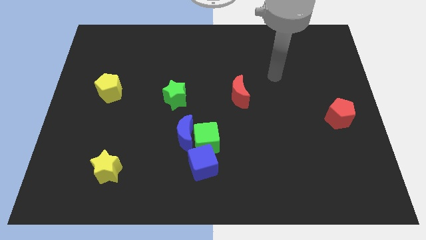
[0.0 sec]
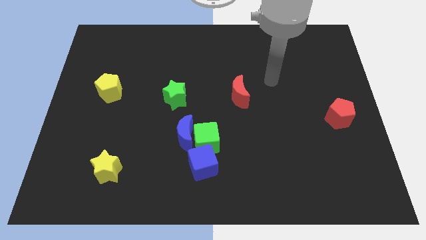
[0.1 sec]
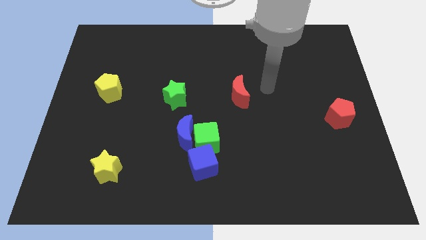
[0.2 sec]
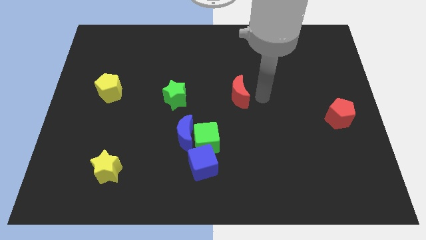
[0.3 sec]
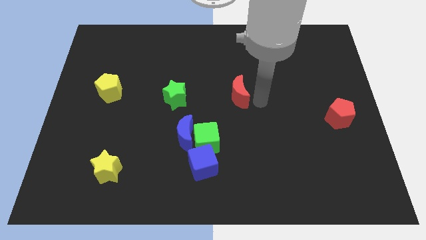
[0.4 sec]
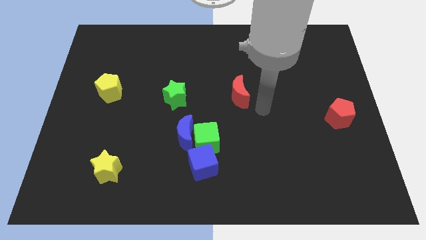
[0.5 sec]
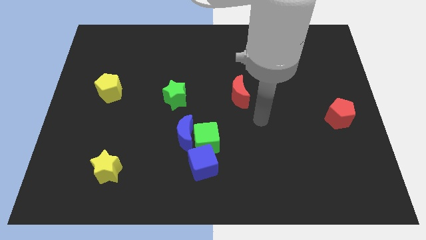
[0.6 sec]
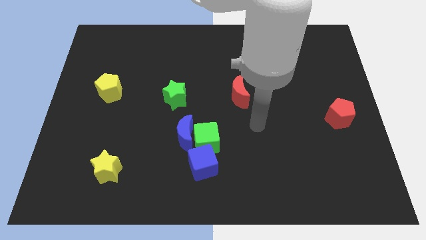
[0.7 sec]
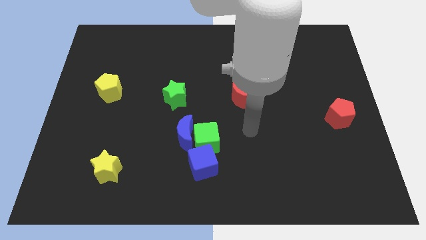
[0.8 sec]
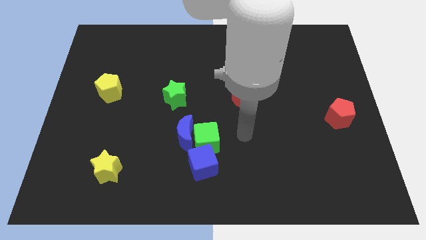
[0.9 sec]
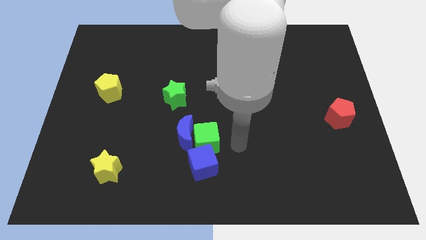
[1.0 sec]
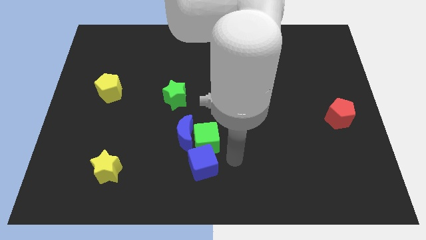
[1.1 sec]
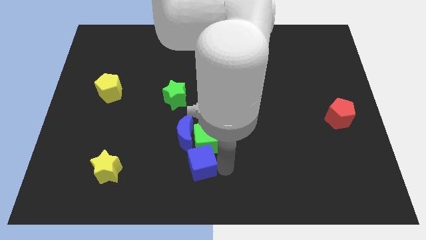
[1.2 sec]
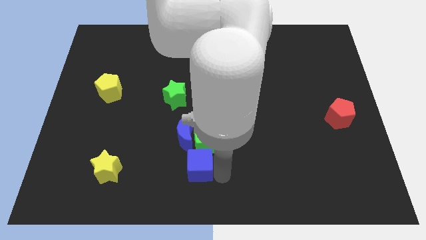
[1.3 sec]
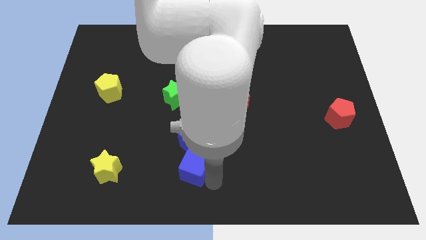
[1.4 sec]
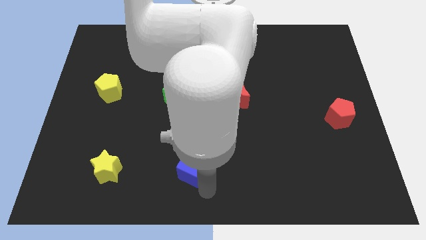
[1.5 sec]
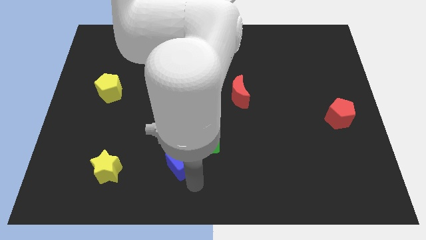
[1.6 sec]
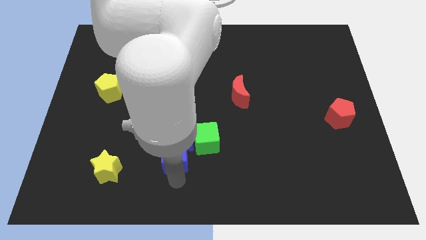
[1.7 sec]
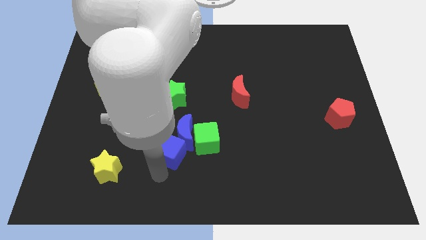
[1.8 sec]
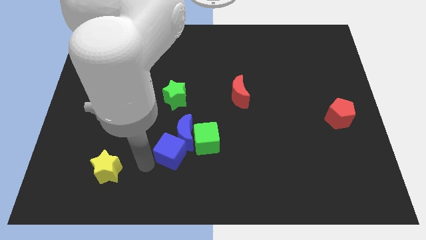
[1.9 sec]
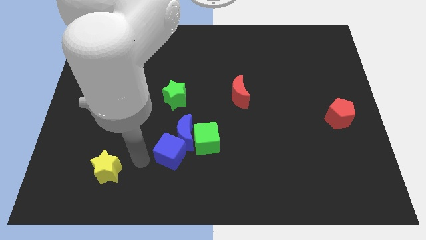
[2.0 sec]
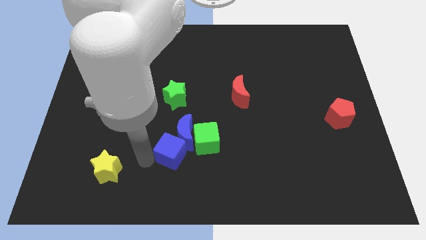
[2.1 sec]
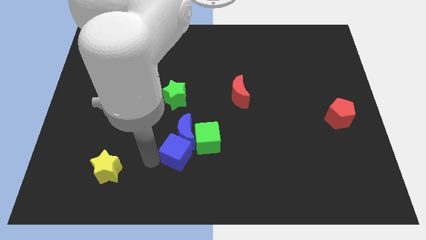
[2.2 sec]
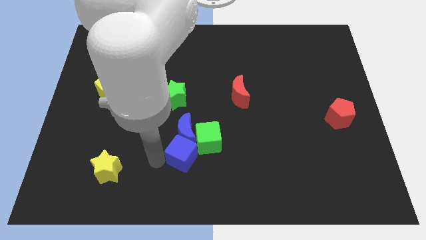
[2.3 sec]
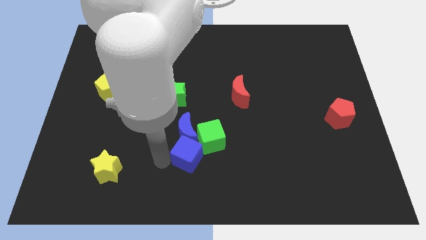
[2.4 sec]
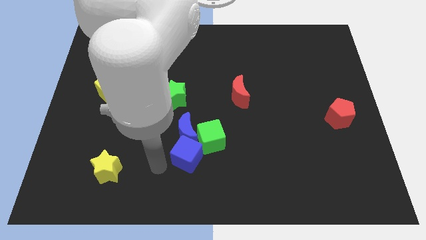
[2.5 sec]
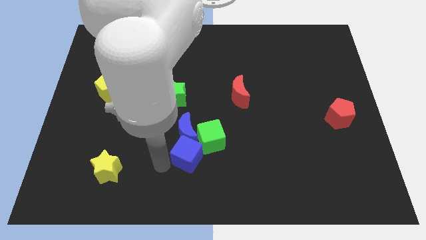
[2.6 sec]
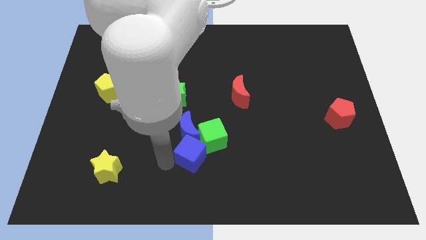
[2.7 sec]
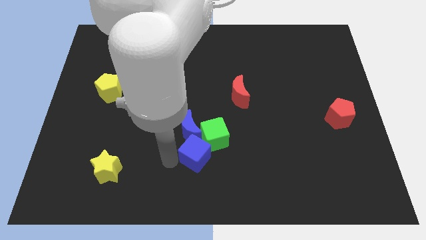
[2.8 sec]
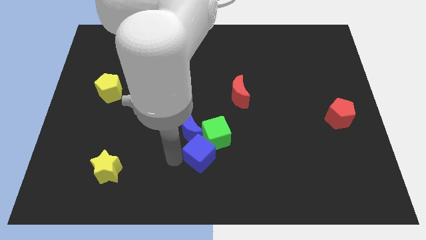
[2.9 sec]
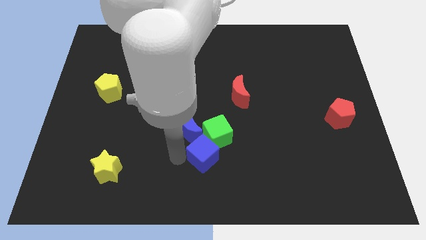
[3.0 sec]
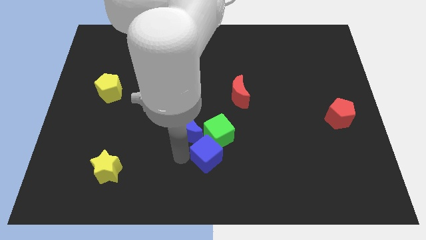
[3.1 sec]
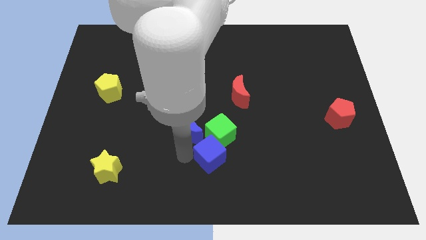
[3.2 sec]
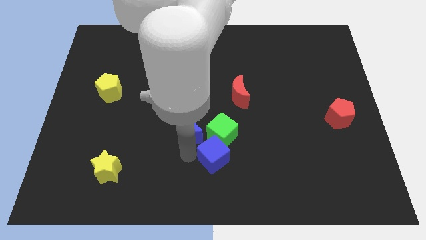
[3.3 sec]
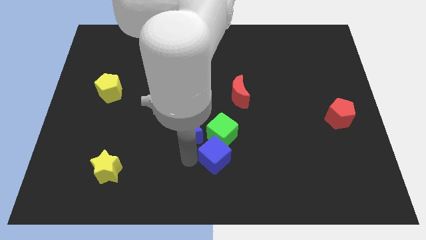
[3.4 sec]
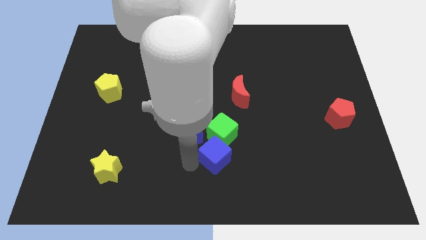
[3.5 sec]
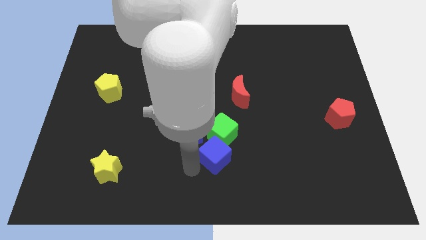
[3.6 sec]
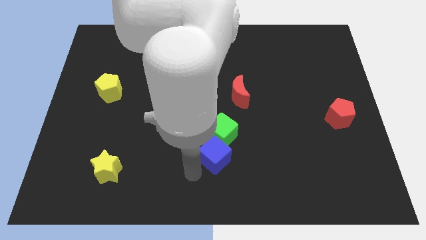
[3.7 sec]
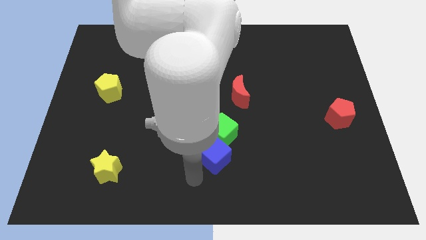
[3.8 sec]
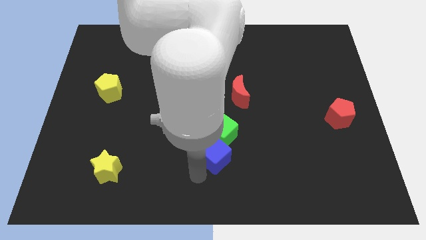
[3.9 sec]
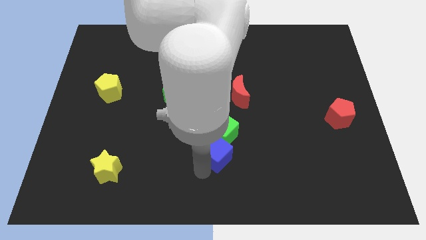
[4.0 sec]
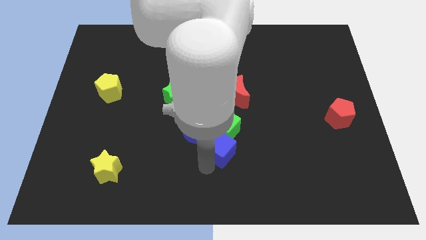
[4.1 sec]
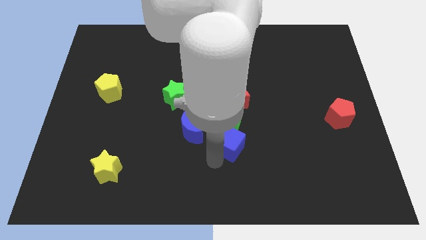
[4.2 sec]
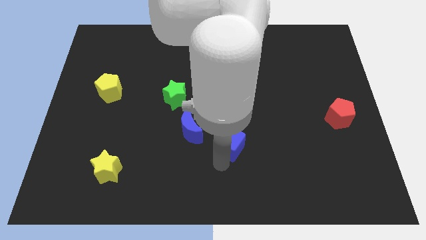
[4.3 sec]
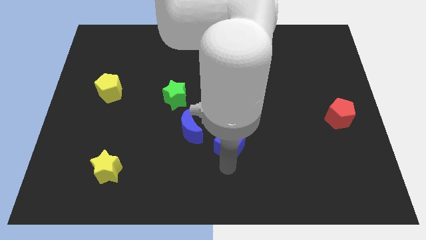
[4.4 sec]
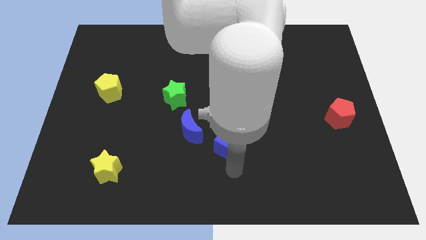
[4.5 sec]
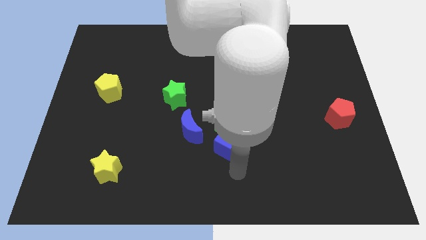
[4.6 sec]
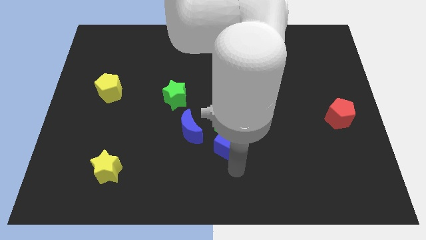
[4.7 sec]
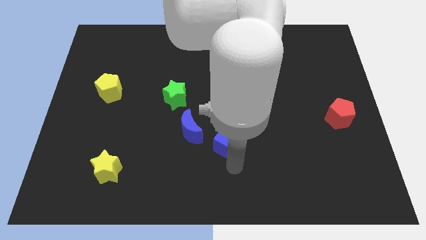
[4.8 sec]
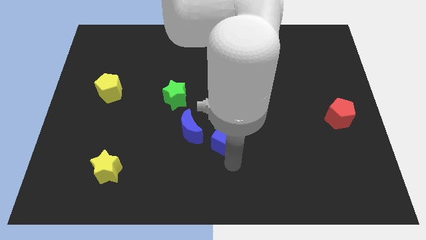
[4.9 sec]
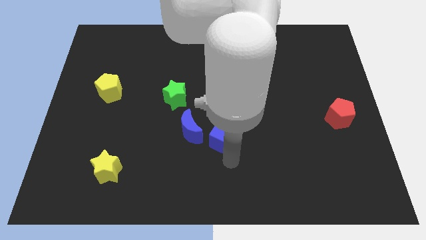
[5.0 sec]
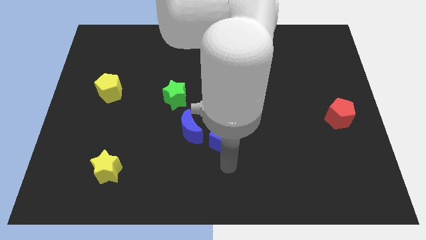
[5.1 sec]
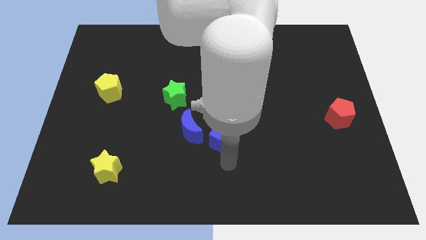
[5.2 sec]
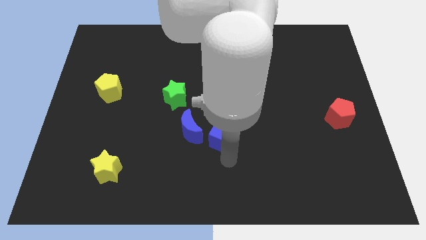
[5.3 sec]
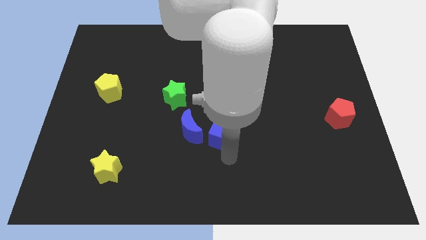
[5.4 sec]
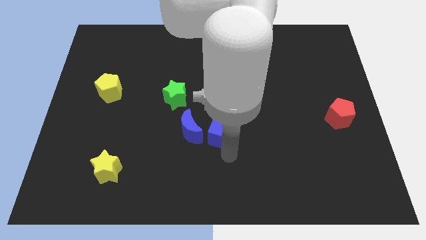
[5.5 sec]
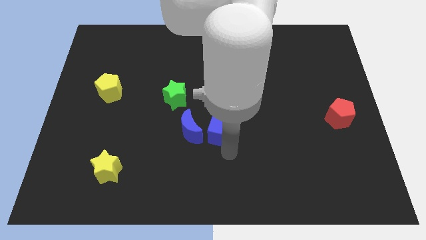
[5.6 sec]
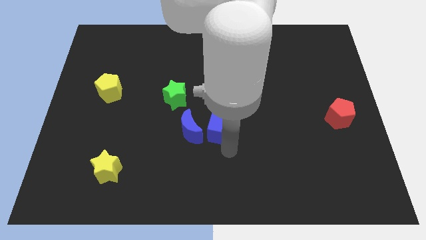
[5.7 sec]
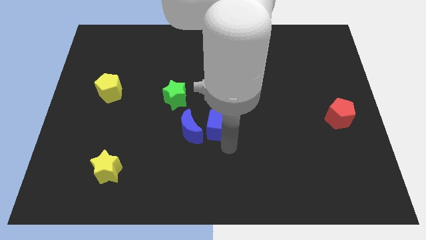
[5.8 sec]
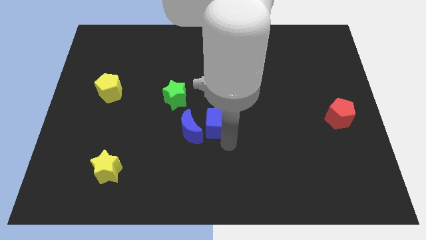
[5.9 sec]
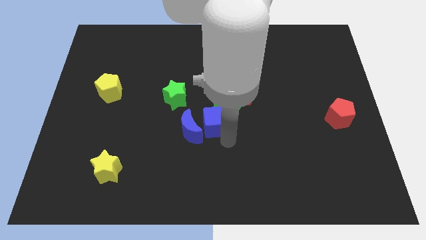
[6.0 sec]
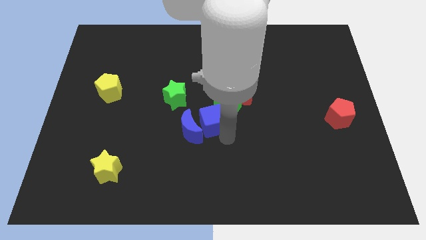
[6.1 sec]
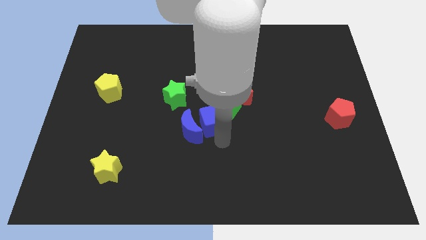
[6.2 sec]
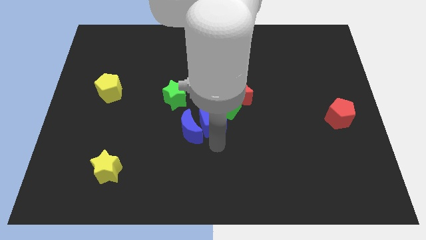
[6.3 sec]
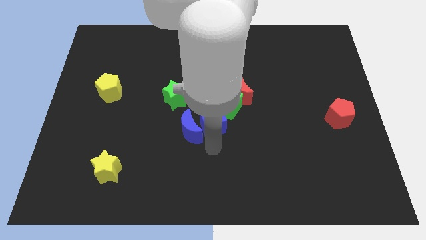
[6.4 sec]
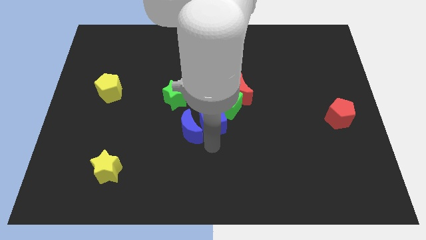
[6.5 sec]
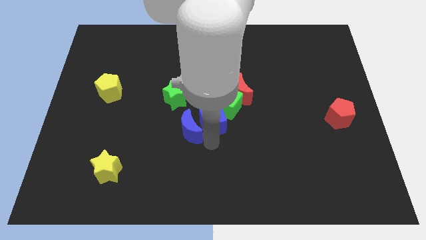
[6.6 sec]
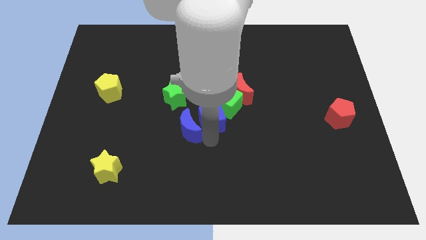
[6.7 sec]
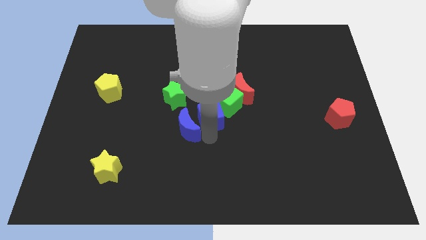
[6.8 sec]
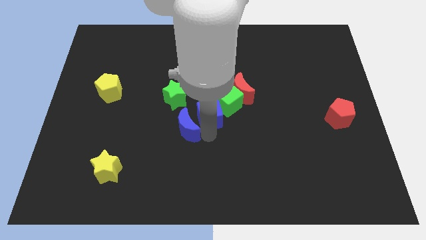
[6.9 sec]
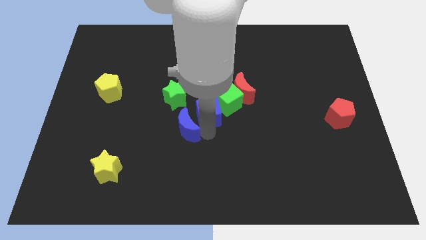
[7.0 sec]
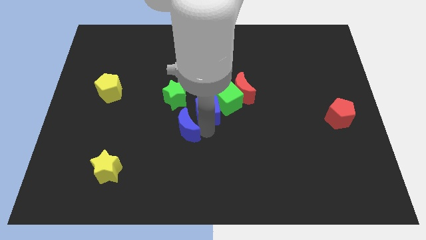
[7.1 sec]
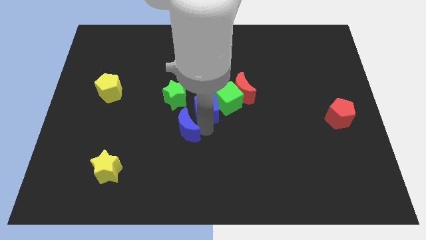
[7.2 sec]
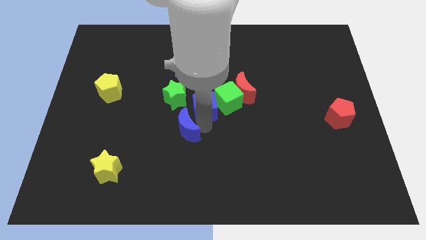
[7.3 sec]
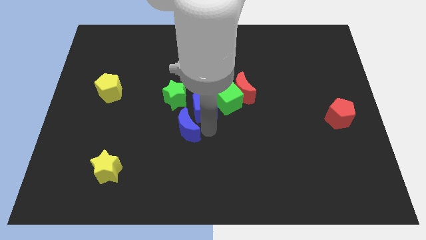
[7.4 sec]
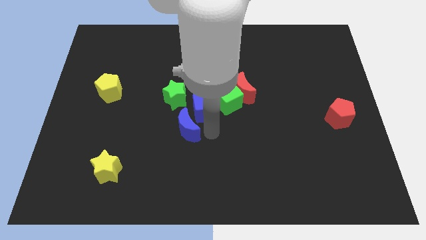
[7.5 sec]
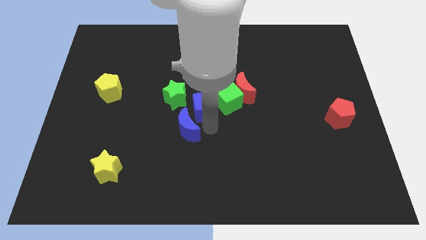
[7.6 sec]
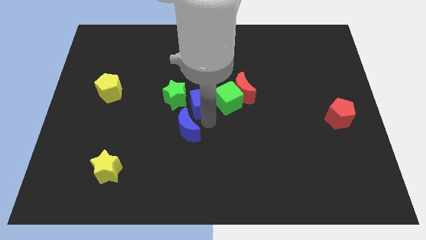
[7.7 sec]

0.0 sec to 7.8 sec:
move the blue cube to the left side of the red moon
